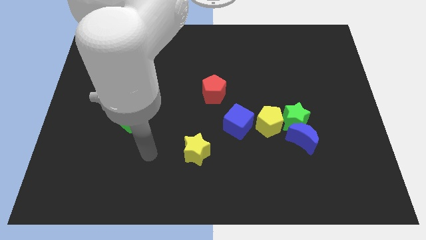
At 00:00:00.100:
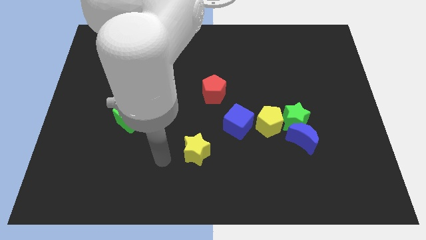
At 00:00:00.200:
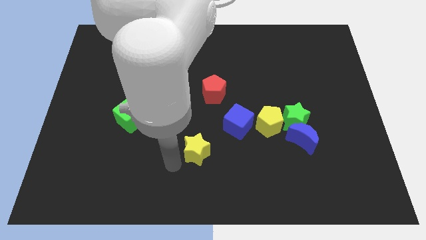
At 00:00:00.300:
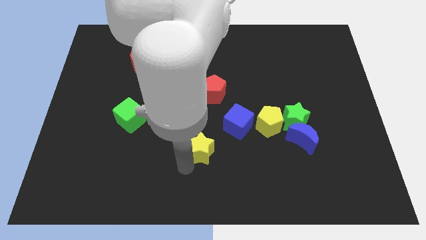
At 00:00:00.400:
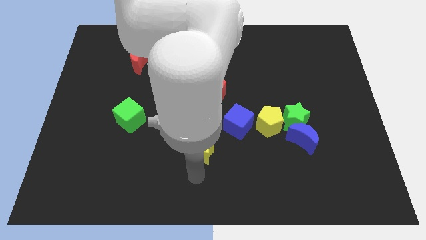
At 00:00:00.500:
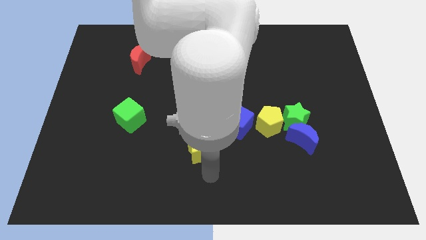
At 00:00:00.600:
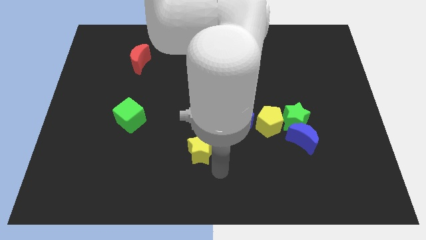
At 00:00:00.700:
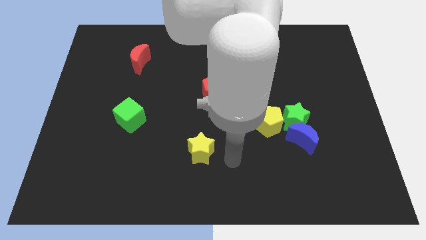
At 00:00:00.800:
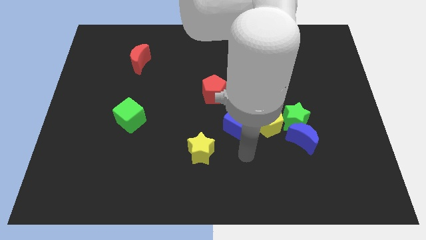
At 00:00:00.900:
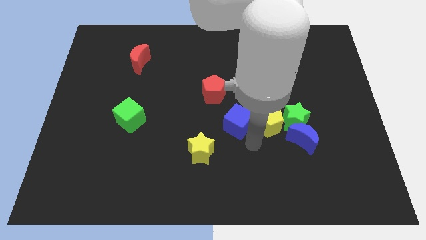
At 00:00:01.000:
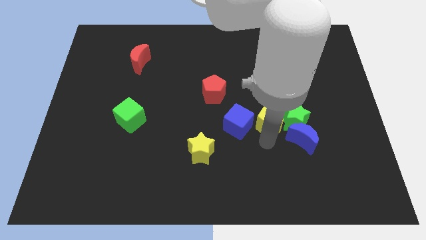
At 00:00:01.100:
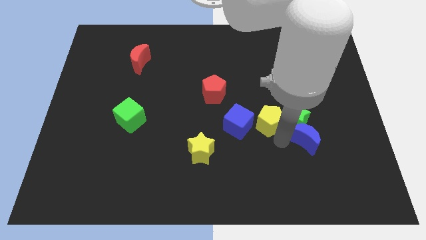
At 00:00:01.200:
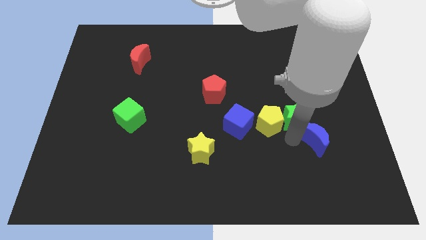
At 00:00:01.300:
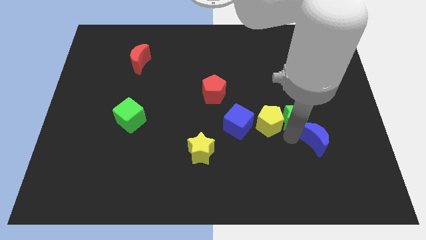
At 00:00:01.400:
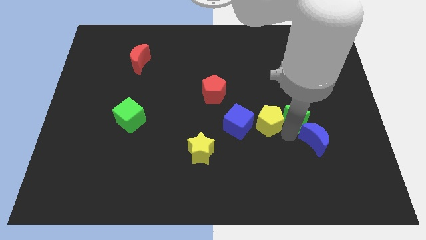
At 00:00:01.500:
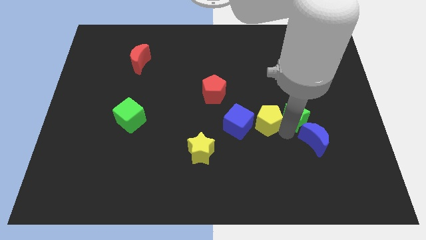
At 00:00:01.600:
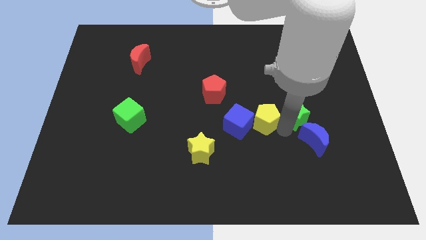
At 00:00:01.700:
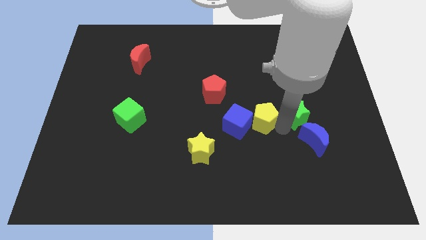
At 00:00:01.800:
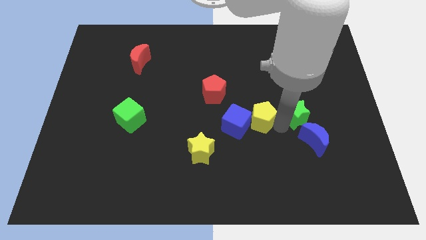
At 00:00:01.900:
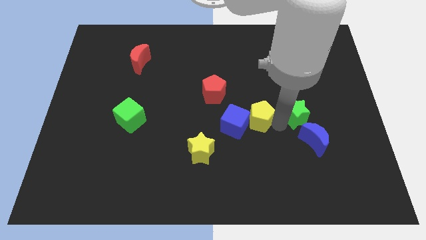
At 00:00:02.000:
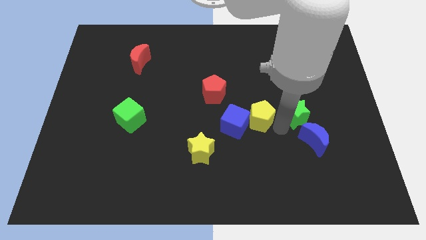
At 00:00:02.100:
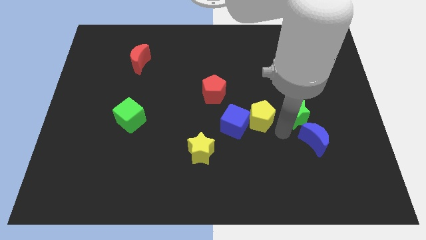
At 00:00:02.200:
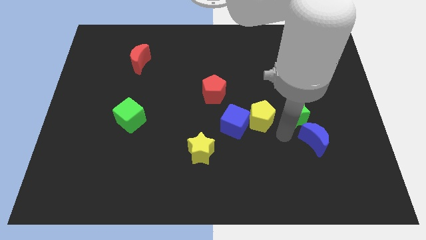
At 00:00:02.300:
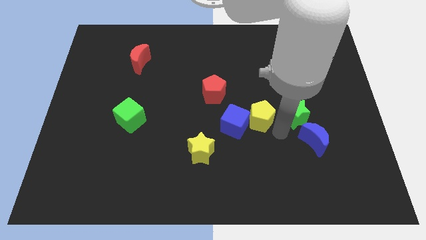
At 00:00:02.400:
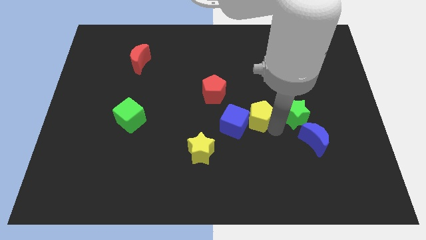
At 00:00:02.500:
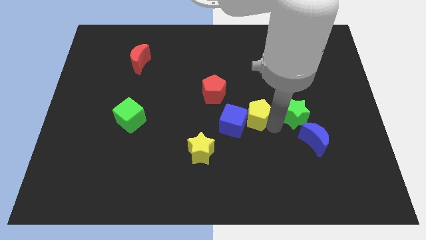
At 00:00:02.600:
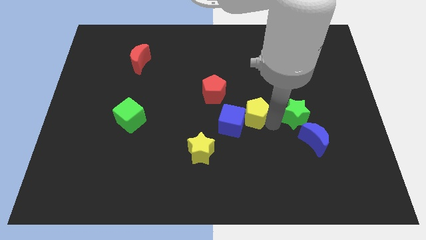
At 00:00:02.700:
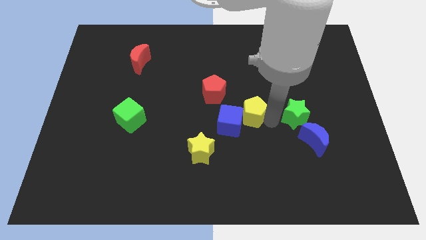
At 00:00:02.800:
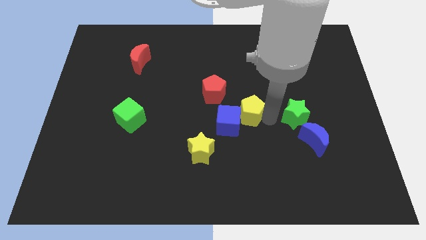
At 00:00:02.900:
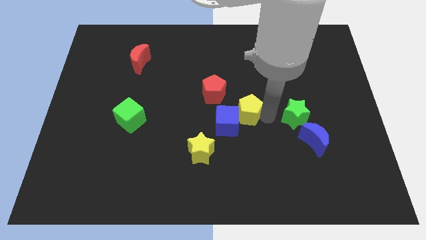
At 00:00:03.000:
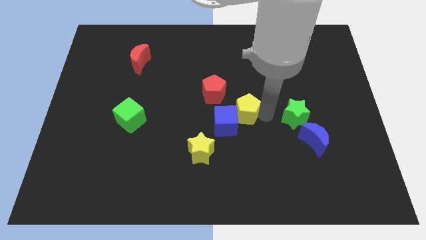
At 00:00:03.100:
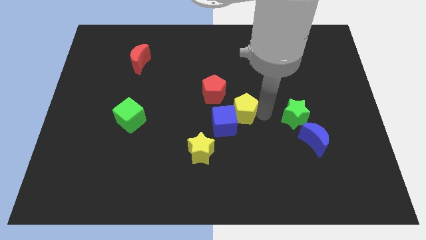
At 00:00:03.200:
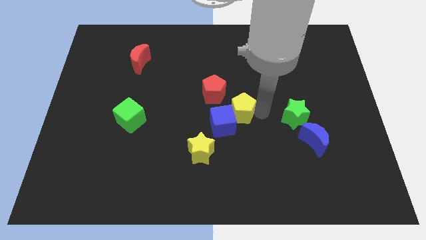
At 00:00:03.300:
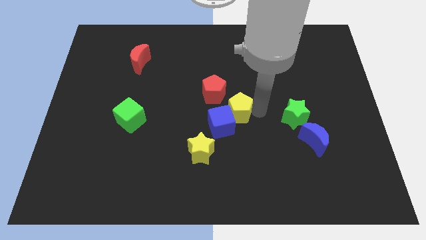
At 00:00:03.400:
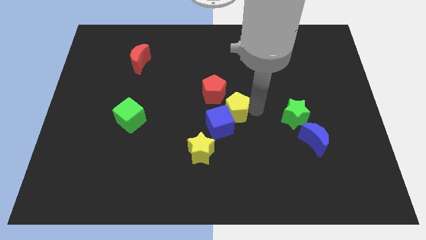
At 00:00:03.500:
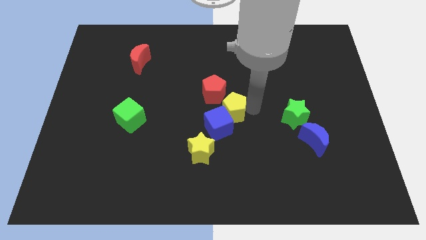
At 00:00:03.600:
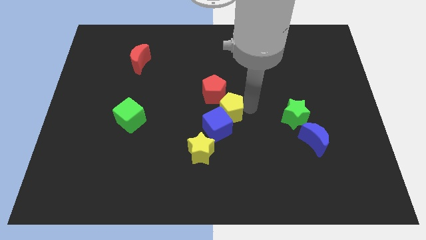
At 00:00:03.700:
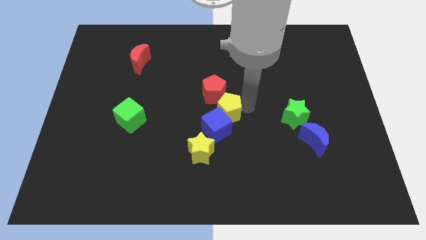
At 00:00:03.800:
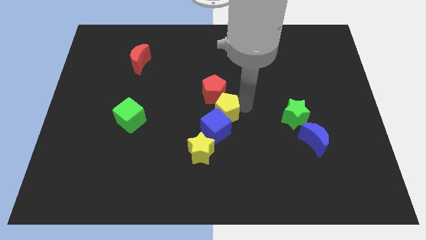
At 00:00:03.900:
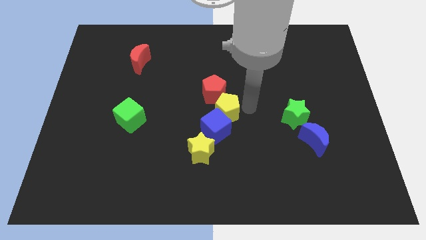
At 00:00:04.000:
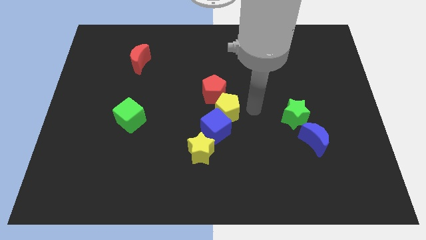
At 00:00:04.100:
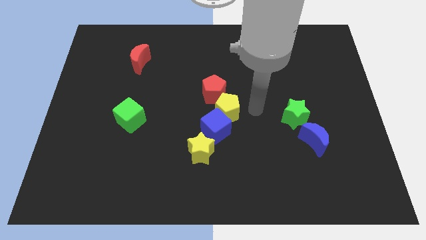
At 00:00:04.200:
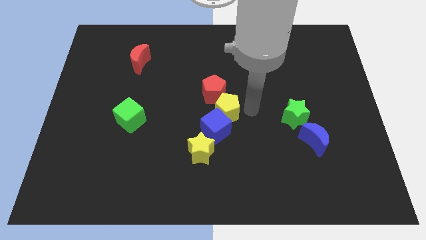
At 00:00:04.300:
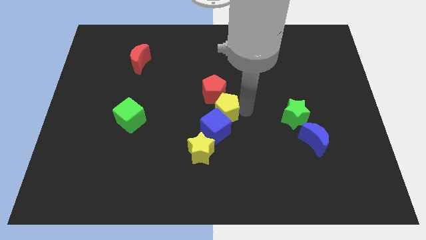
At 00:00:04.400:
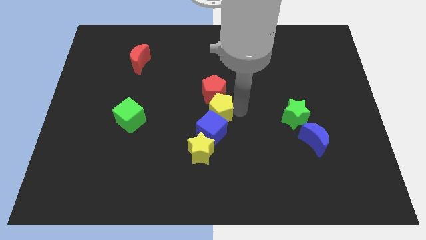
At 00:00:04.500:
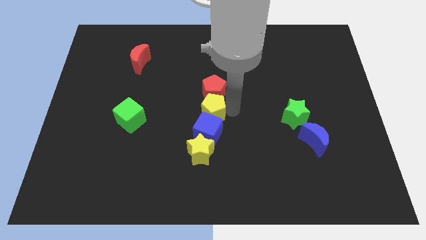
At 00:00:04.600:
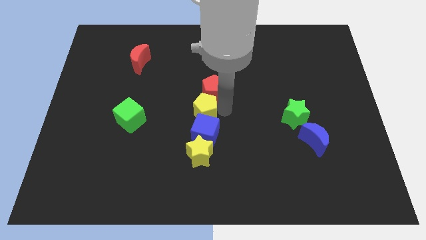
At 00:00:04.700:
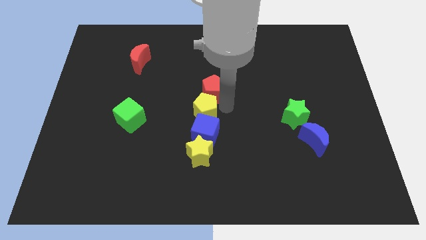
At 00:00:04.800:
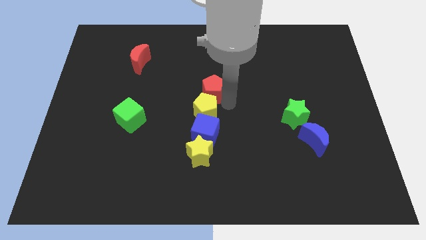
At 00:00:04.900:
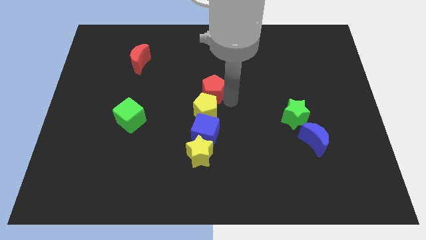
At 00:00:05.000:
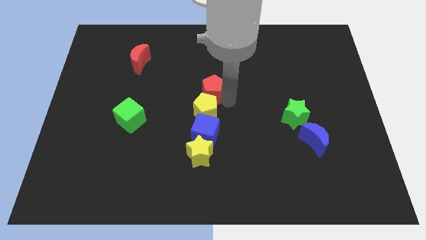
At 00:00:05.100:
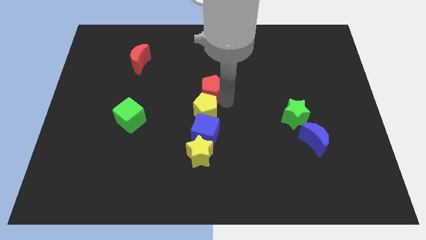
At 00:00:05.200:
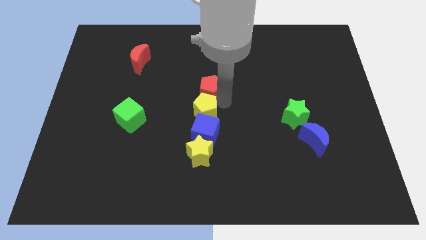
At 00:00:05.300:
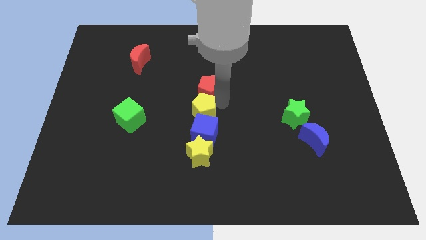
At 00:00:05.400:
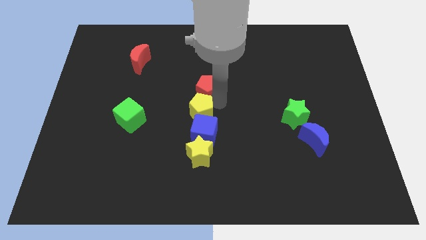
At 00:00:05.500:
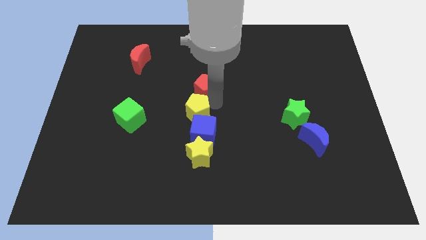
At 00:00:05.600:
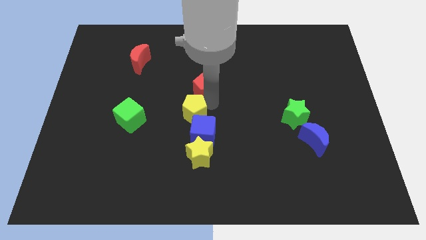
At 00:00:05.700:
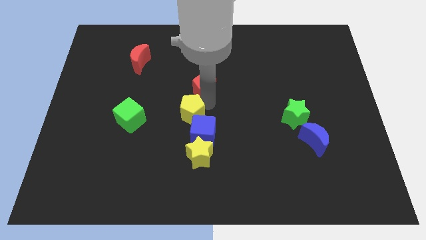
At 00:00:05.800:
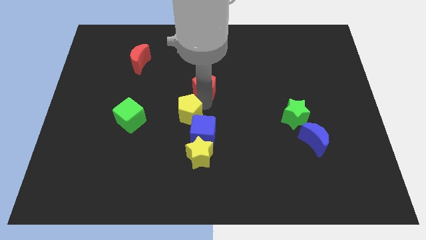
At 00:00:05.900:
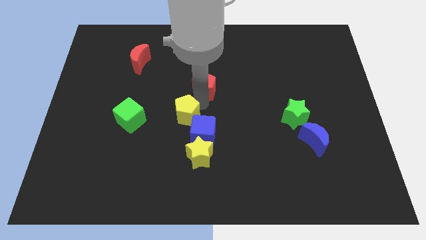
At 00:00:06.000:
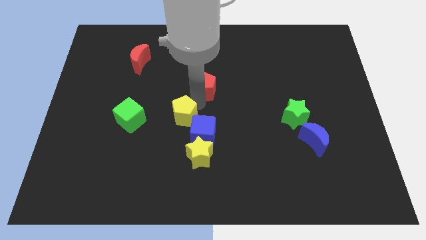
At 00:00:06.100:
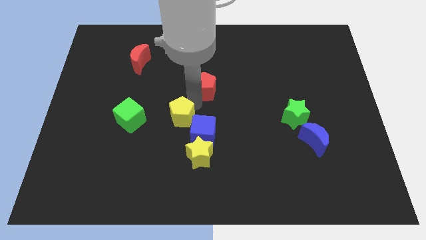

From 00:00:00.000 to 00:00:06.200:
move the yellow pentagon to the top left of the yellow star

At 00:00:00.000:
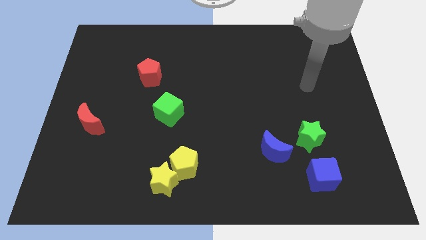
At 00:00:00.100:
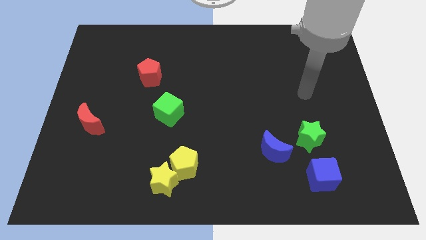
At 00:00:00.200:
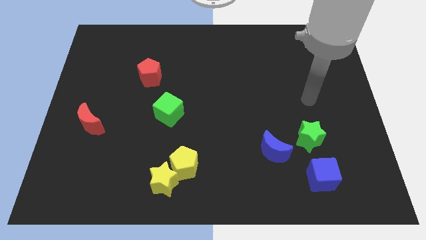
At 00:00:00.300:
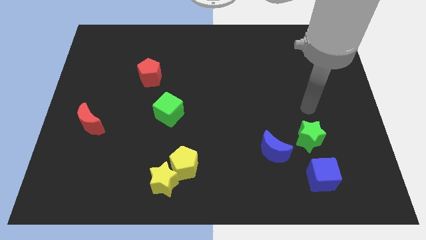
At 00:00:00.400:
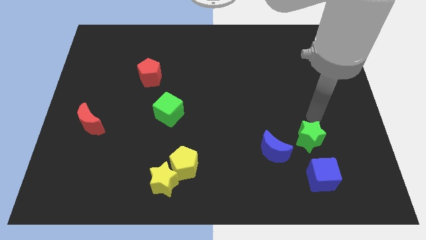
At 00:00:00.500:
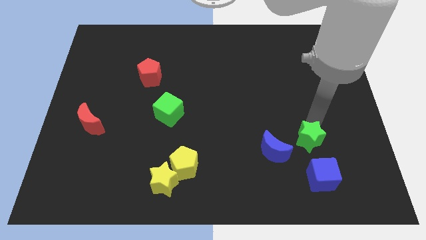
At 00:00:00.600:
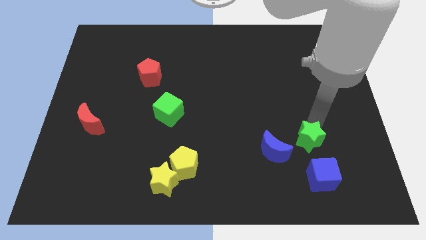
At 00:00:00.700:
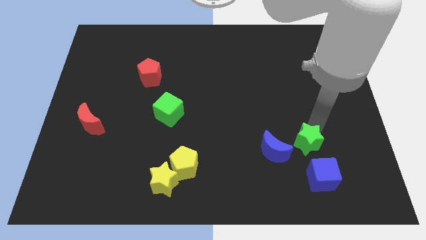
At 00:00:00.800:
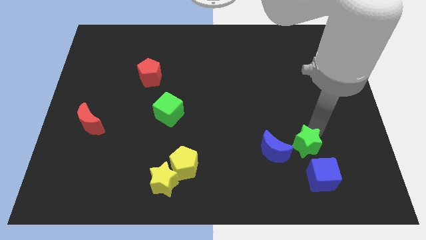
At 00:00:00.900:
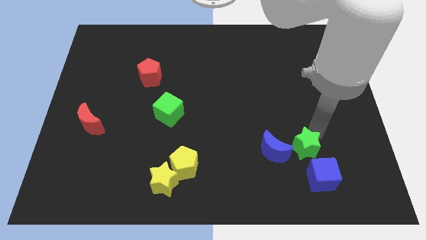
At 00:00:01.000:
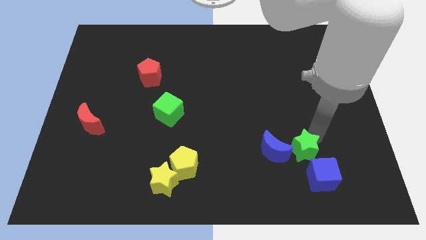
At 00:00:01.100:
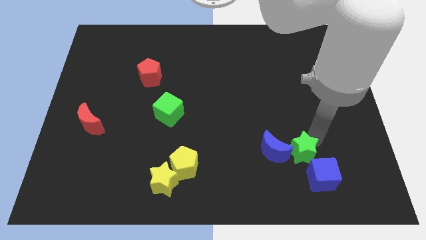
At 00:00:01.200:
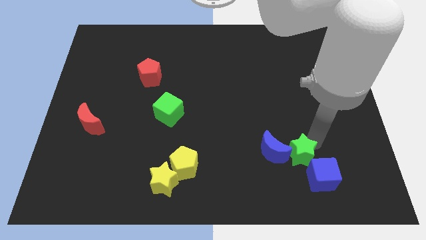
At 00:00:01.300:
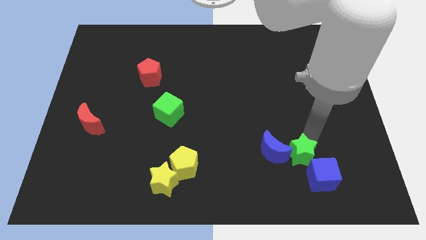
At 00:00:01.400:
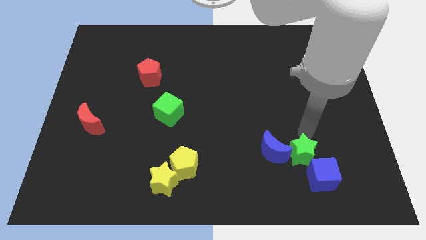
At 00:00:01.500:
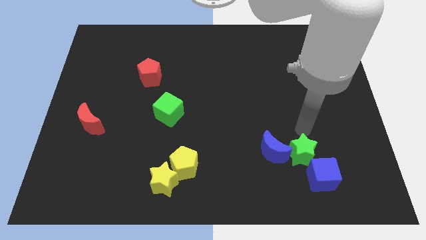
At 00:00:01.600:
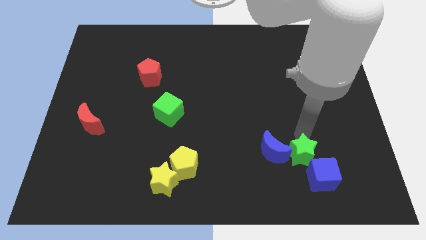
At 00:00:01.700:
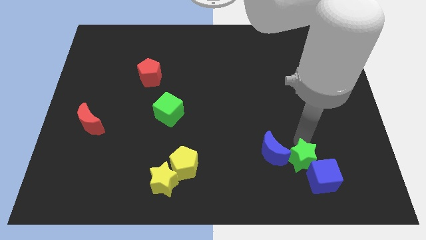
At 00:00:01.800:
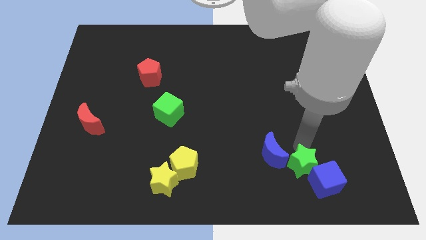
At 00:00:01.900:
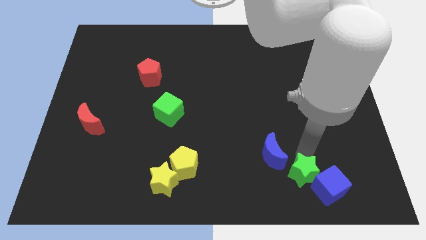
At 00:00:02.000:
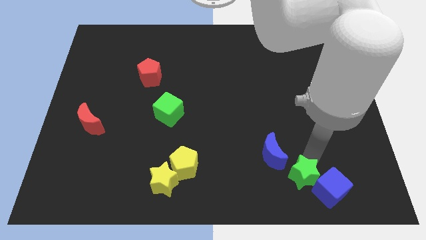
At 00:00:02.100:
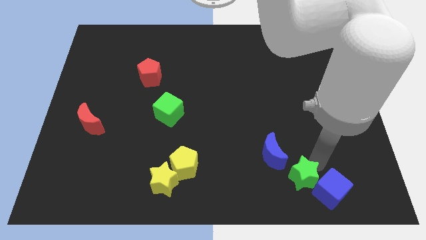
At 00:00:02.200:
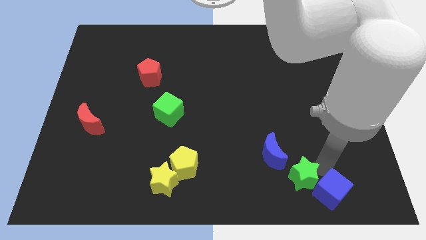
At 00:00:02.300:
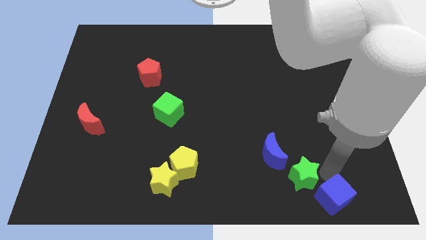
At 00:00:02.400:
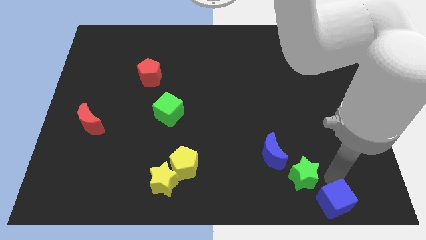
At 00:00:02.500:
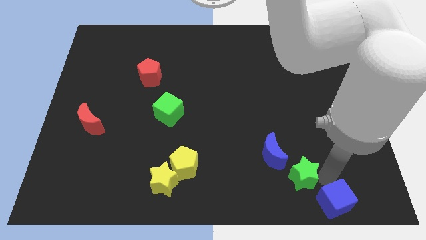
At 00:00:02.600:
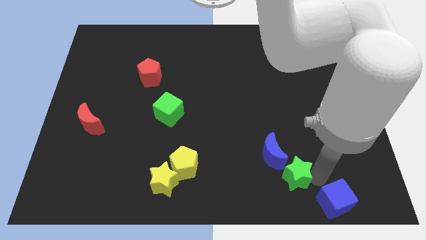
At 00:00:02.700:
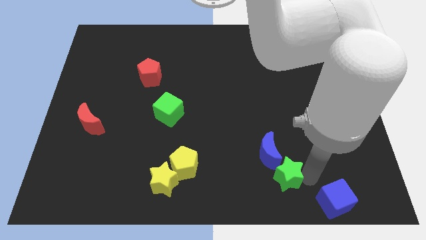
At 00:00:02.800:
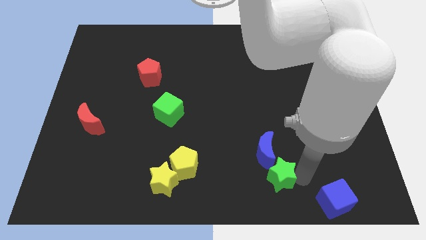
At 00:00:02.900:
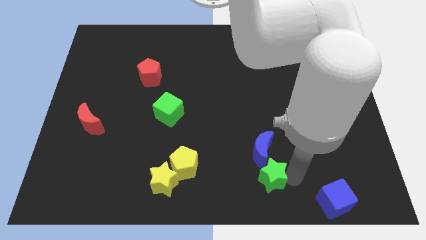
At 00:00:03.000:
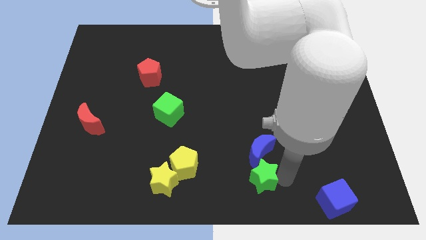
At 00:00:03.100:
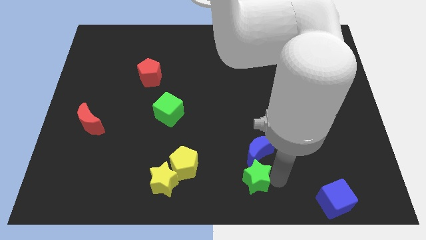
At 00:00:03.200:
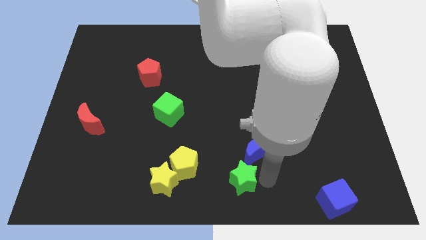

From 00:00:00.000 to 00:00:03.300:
move the green star to the right of the yellow star
